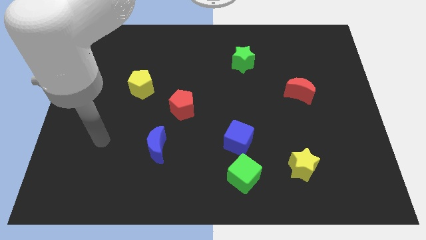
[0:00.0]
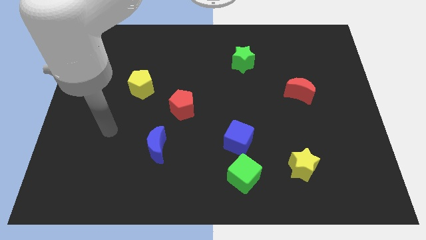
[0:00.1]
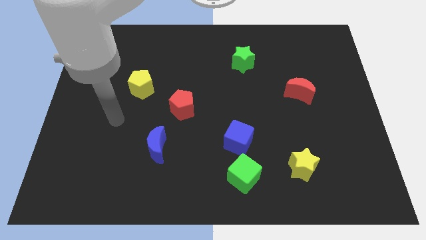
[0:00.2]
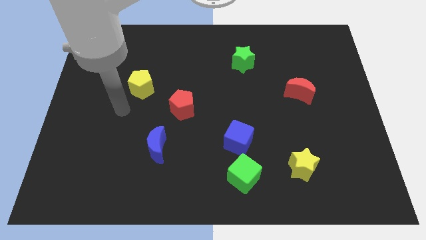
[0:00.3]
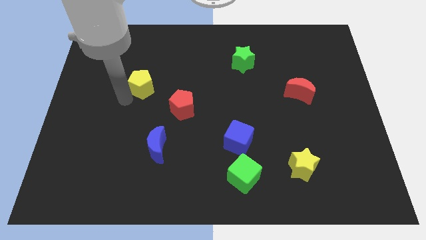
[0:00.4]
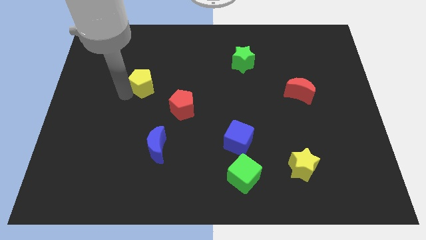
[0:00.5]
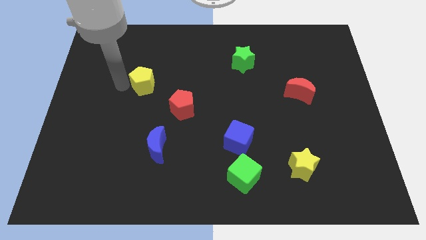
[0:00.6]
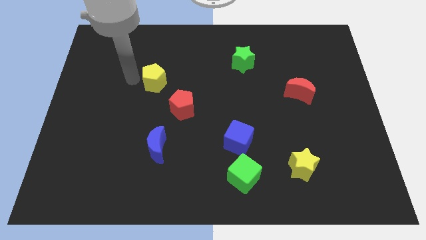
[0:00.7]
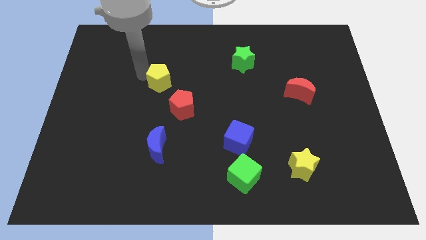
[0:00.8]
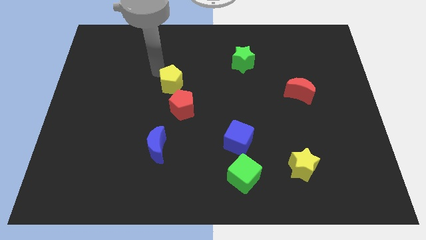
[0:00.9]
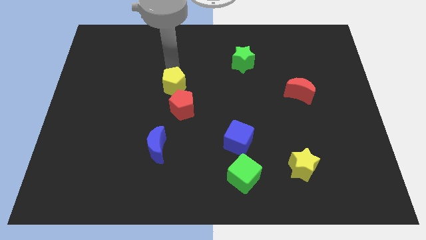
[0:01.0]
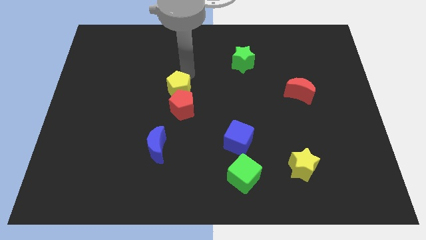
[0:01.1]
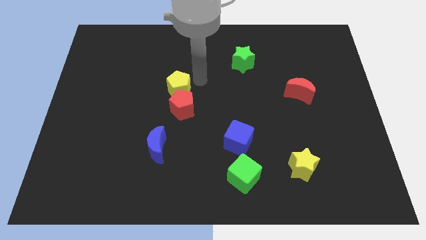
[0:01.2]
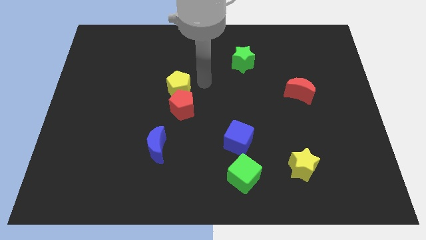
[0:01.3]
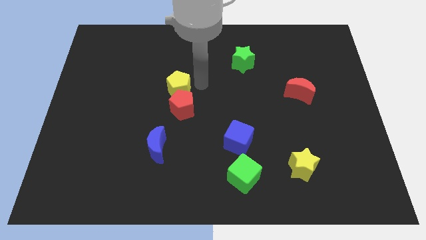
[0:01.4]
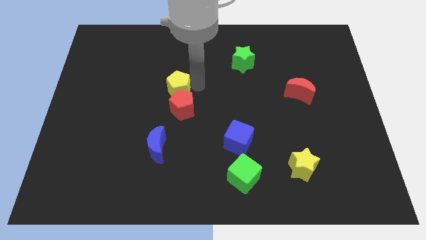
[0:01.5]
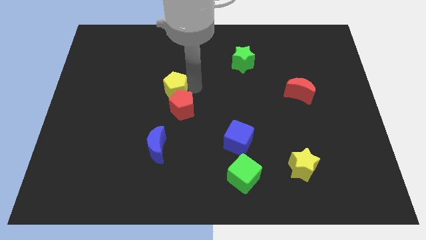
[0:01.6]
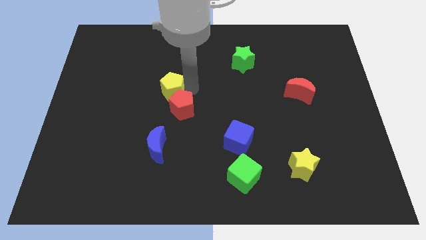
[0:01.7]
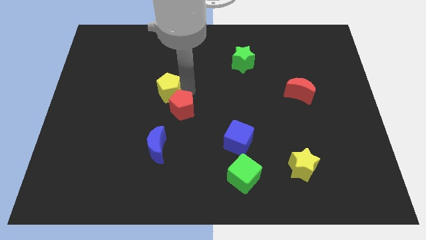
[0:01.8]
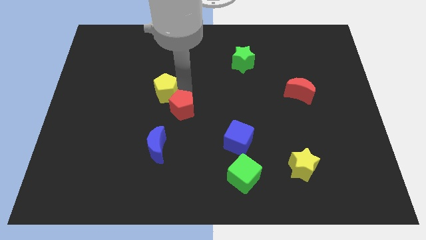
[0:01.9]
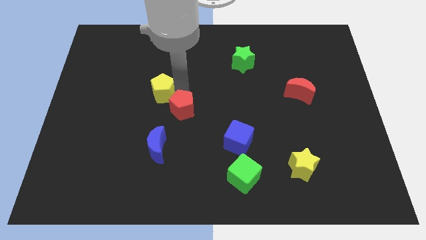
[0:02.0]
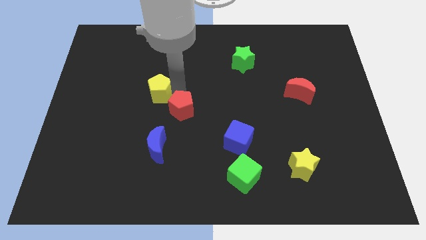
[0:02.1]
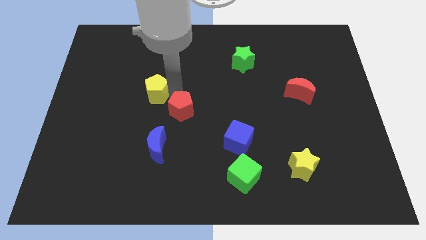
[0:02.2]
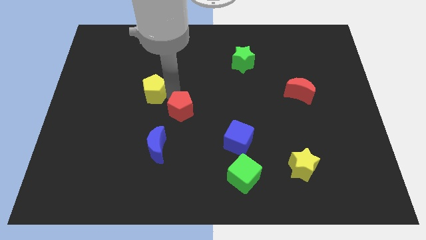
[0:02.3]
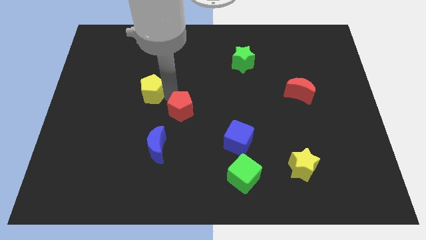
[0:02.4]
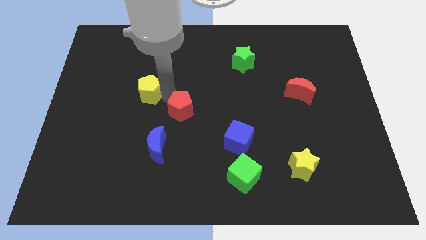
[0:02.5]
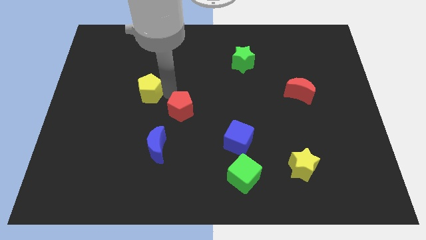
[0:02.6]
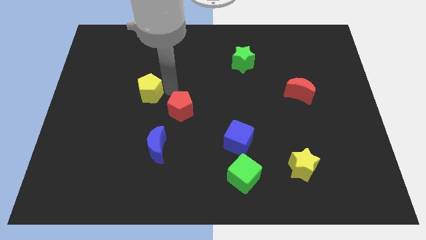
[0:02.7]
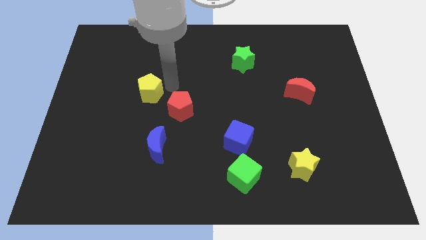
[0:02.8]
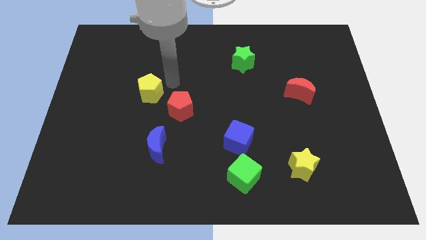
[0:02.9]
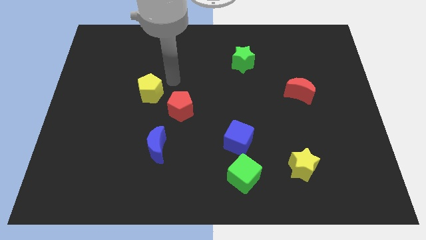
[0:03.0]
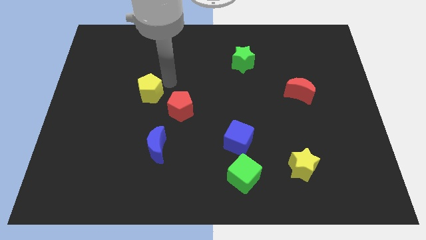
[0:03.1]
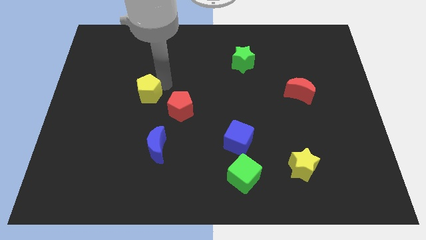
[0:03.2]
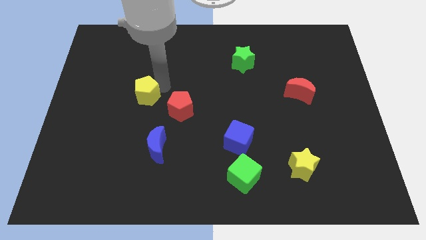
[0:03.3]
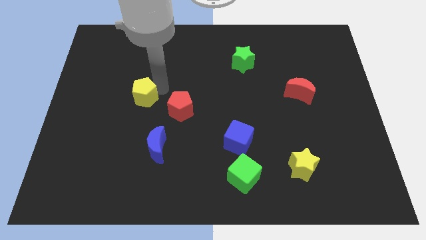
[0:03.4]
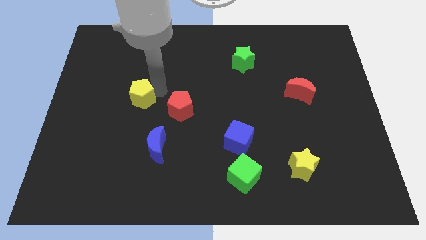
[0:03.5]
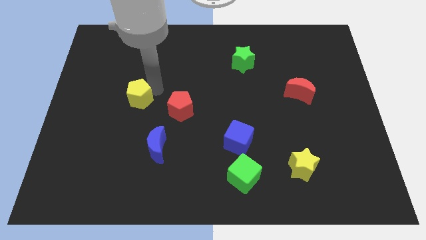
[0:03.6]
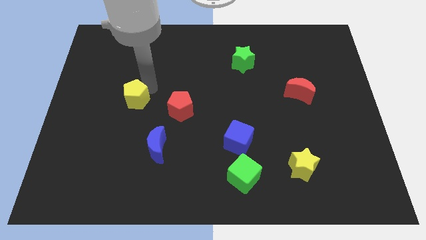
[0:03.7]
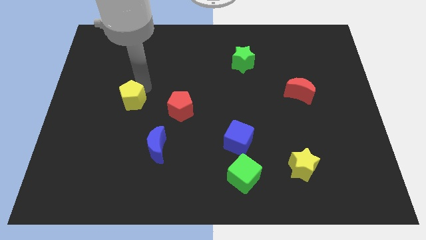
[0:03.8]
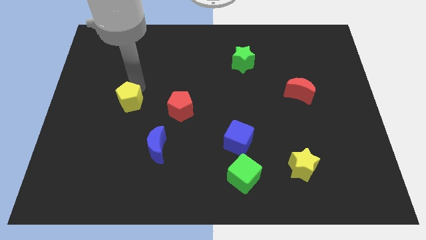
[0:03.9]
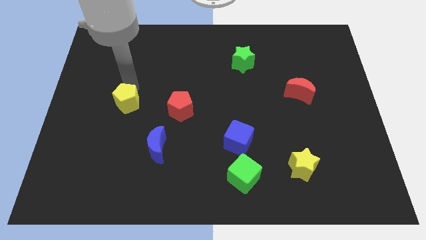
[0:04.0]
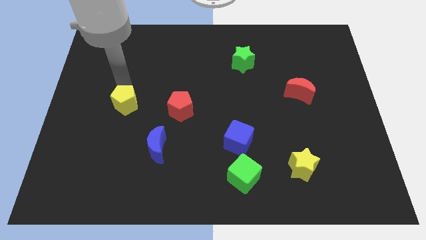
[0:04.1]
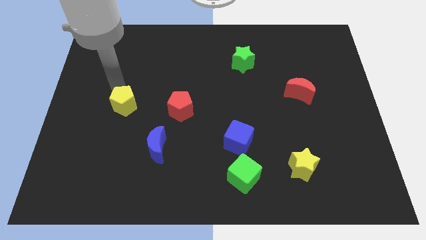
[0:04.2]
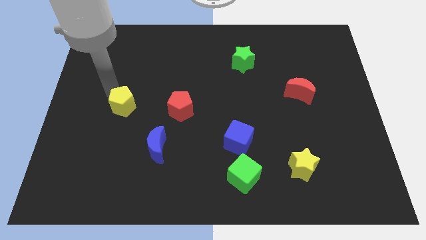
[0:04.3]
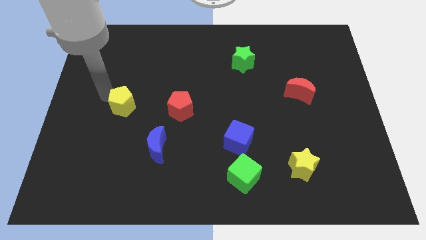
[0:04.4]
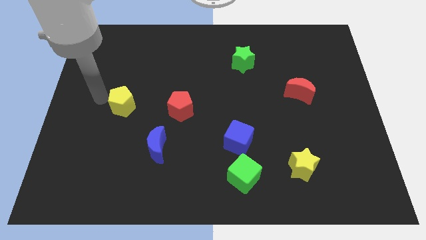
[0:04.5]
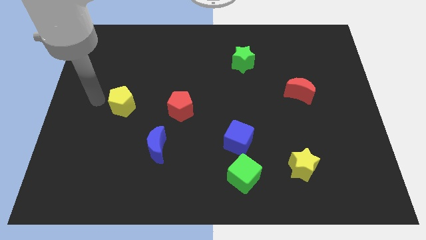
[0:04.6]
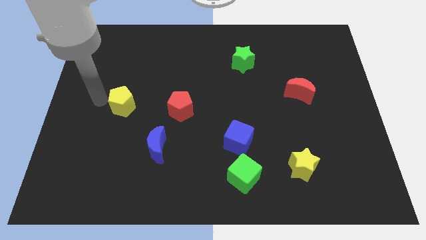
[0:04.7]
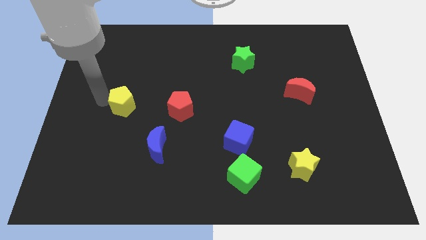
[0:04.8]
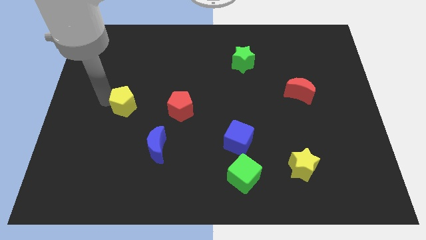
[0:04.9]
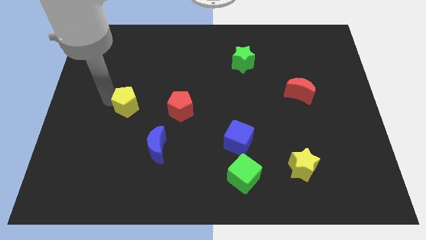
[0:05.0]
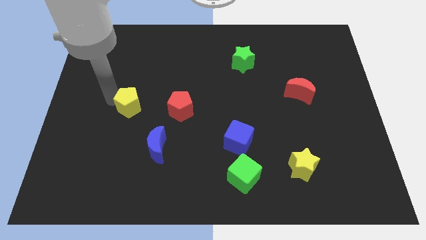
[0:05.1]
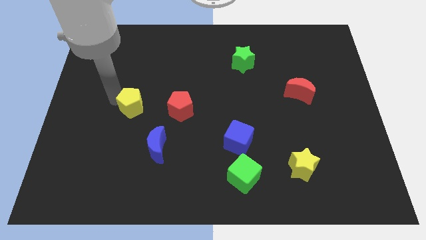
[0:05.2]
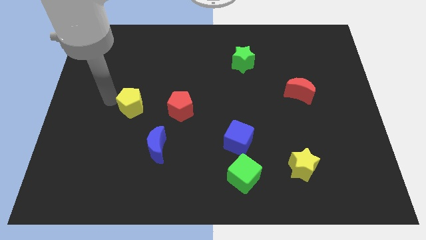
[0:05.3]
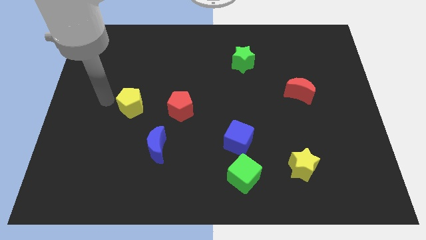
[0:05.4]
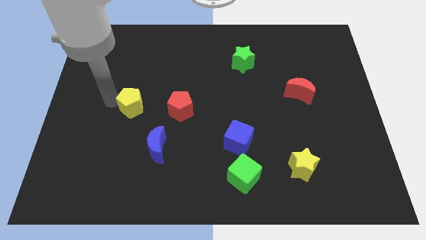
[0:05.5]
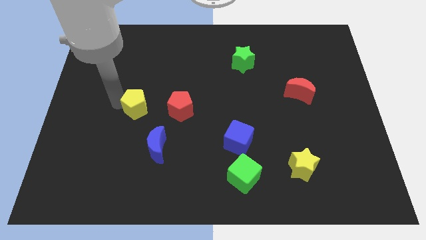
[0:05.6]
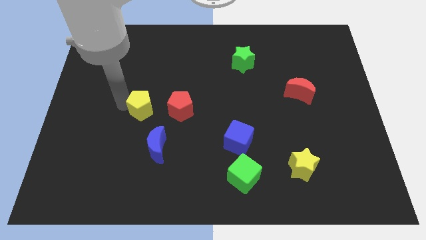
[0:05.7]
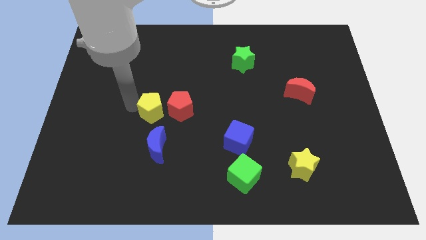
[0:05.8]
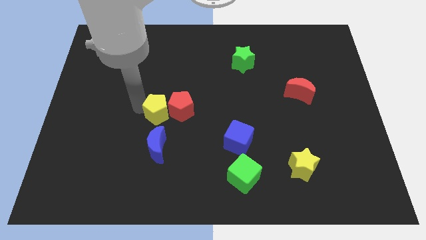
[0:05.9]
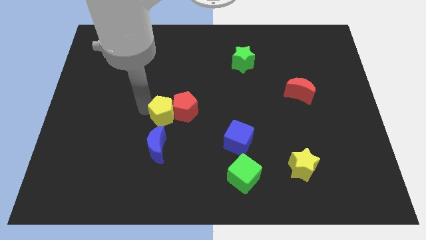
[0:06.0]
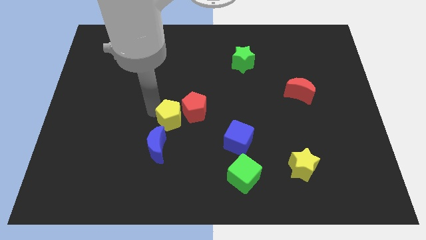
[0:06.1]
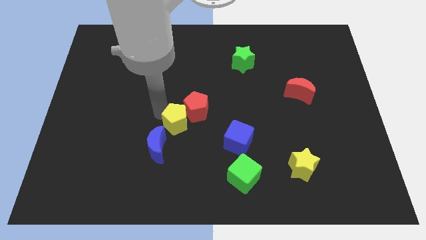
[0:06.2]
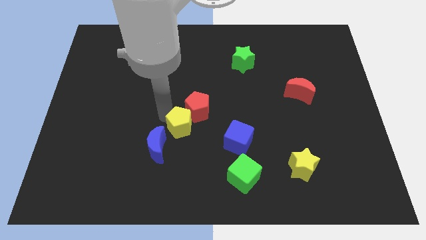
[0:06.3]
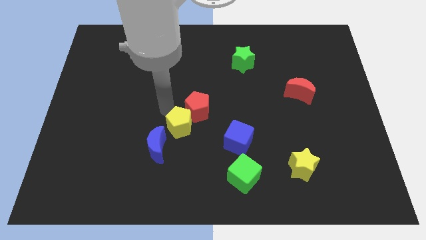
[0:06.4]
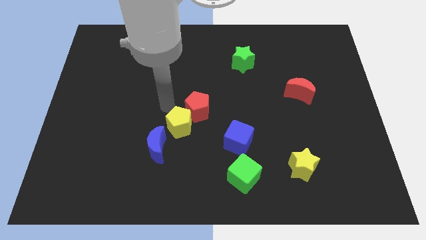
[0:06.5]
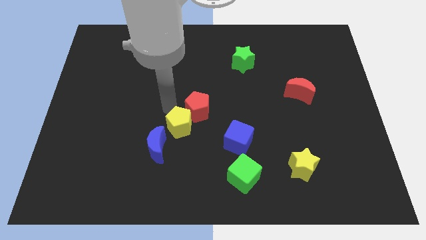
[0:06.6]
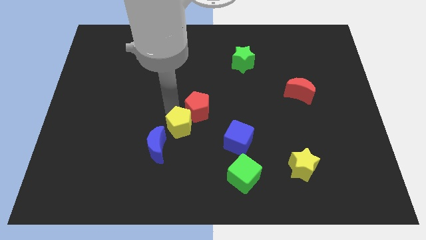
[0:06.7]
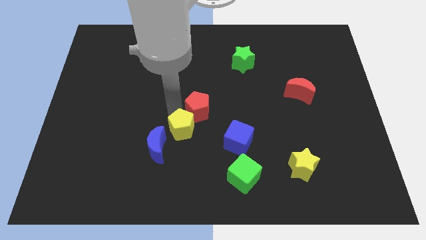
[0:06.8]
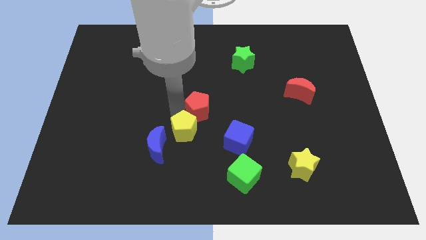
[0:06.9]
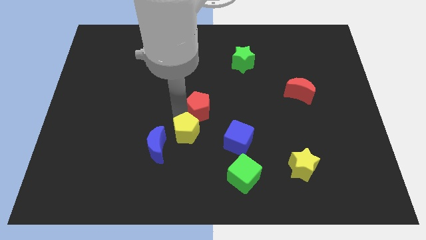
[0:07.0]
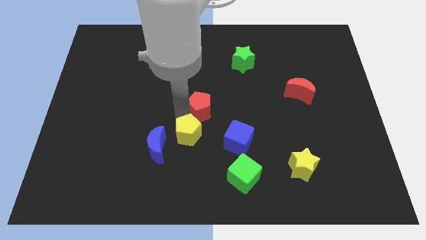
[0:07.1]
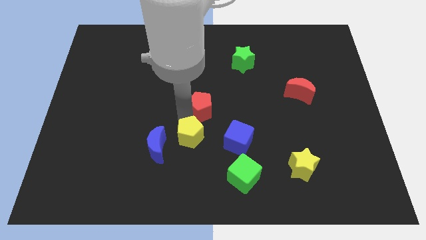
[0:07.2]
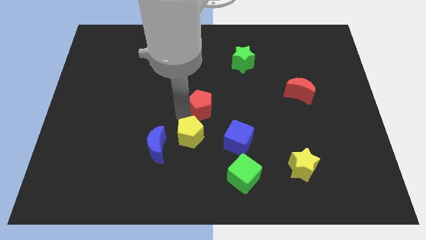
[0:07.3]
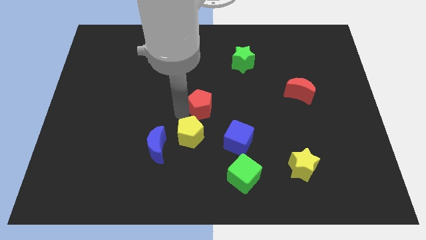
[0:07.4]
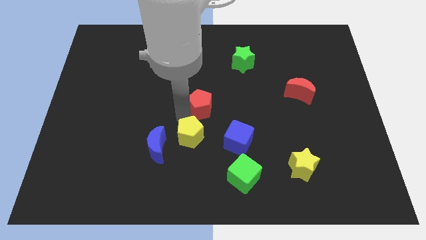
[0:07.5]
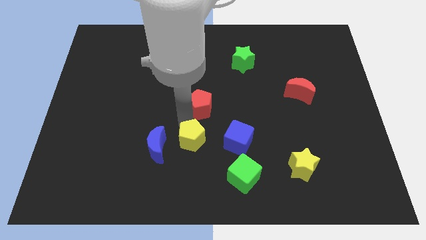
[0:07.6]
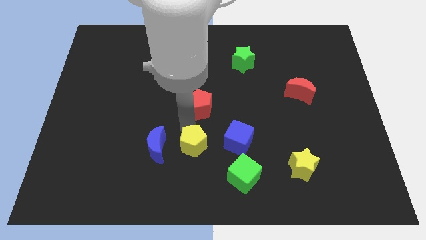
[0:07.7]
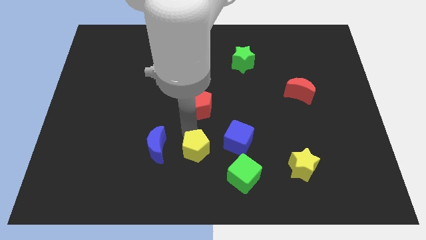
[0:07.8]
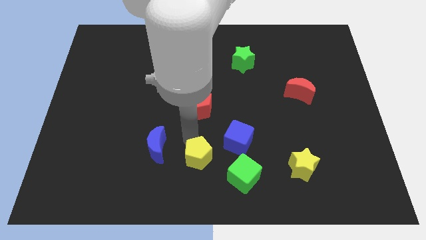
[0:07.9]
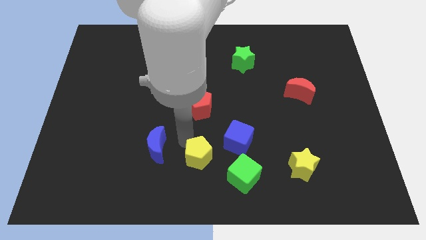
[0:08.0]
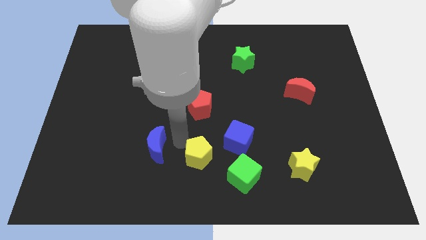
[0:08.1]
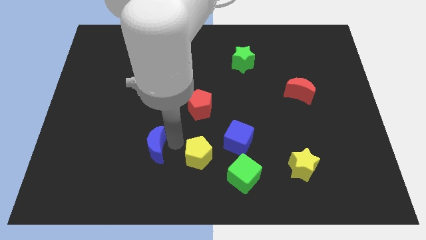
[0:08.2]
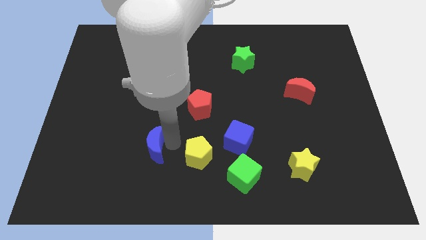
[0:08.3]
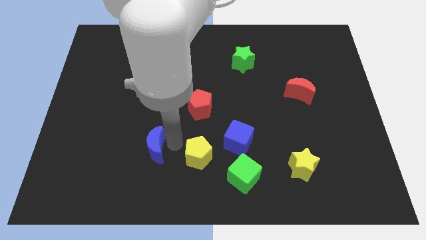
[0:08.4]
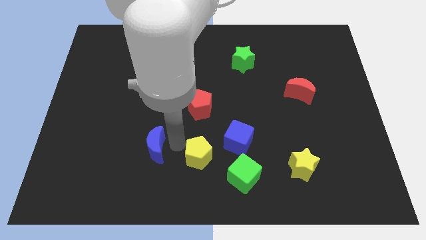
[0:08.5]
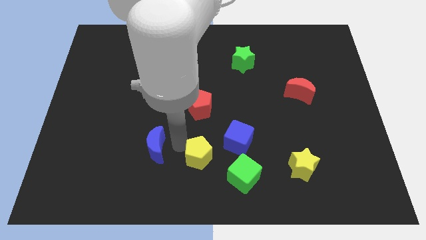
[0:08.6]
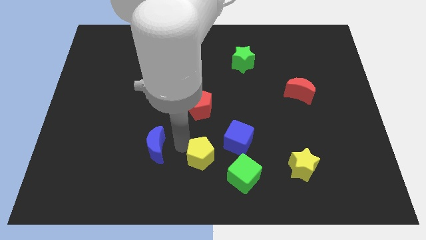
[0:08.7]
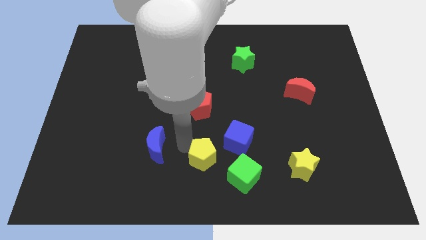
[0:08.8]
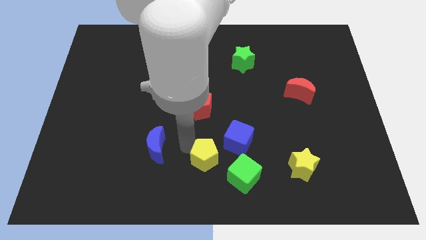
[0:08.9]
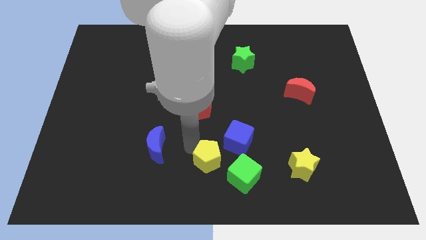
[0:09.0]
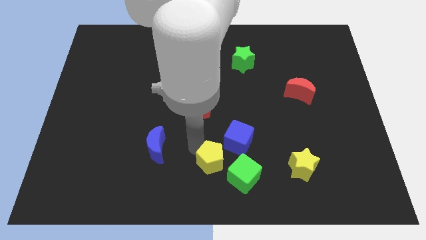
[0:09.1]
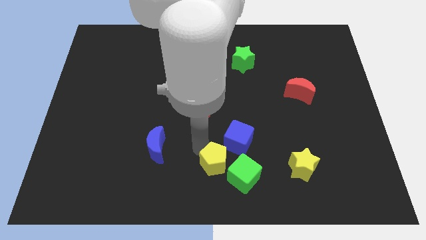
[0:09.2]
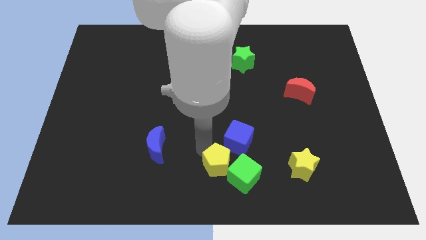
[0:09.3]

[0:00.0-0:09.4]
put the yellow pentagon towards the green cube
